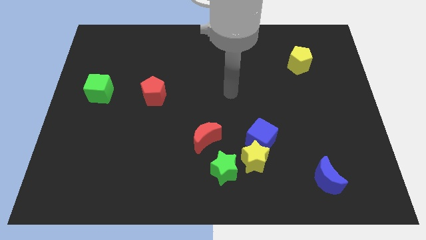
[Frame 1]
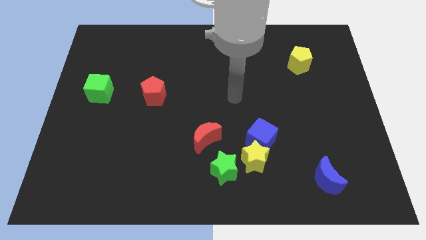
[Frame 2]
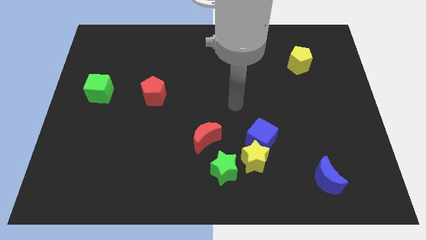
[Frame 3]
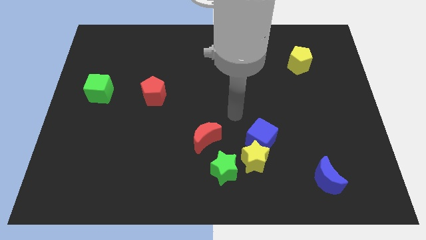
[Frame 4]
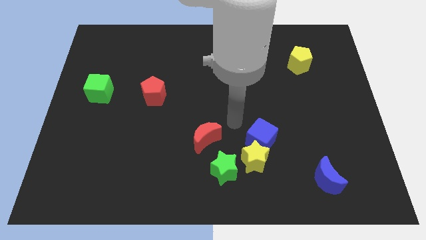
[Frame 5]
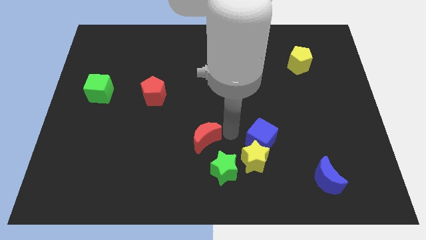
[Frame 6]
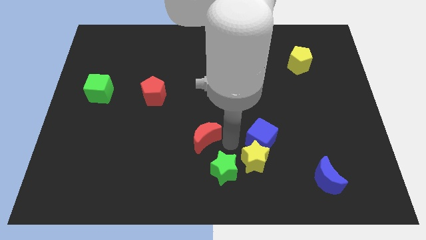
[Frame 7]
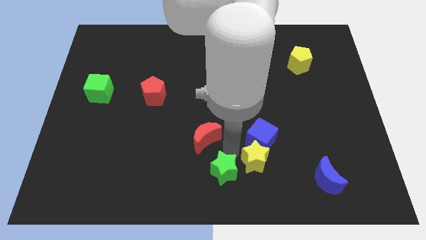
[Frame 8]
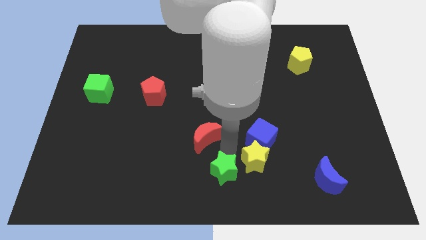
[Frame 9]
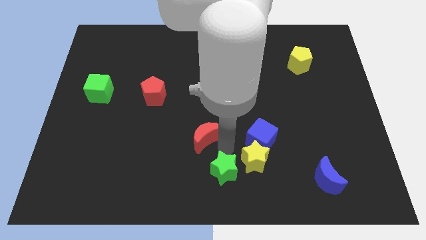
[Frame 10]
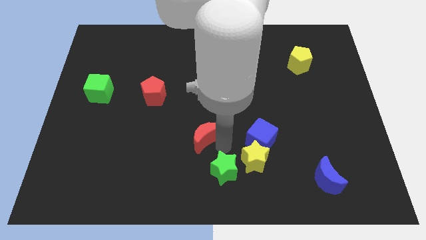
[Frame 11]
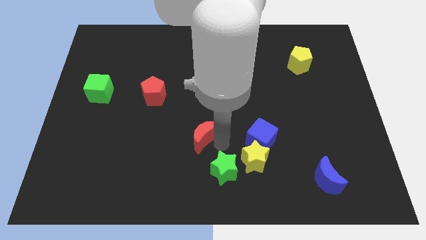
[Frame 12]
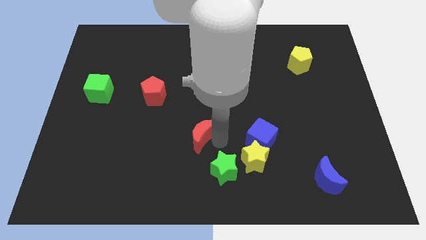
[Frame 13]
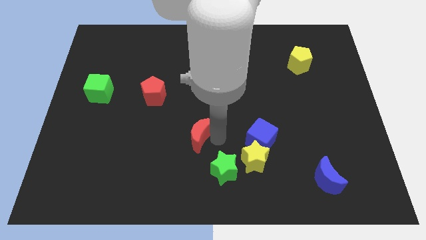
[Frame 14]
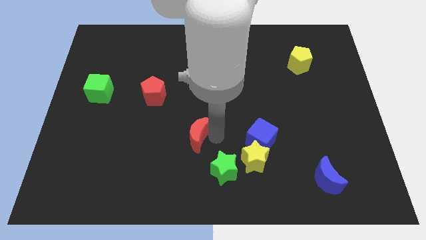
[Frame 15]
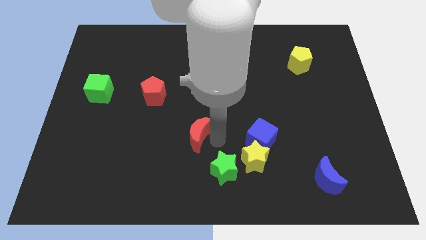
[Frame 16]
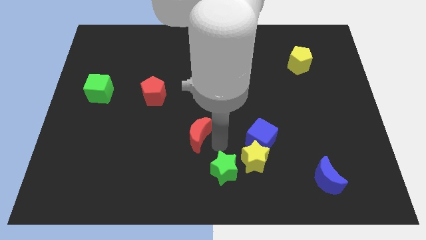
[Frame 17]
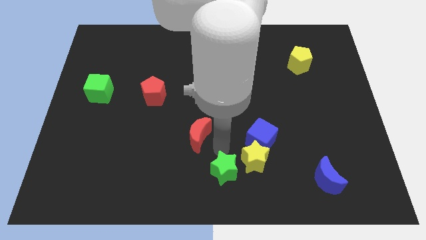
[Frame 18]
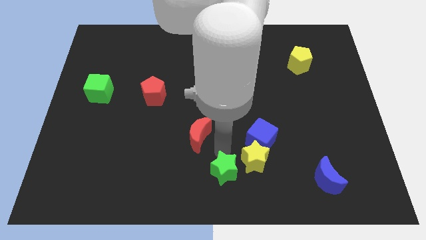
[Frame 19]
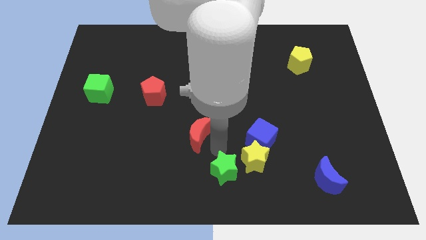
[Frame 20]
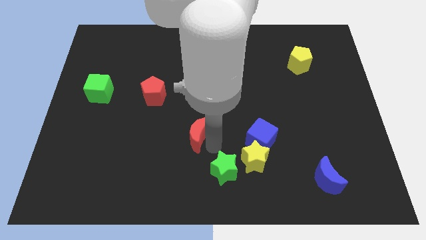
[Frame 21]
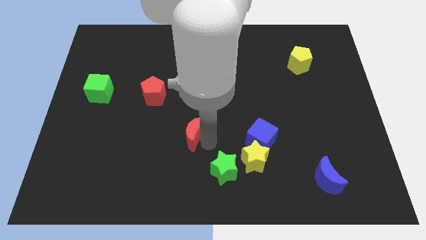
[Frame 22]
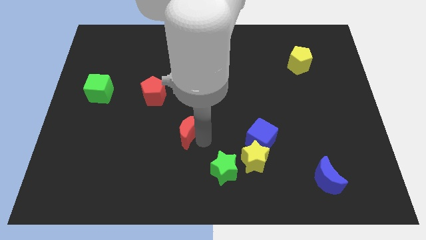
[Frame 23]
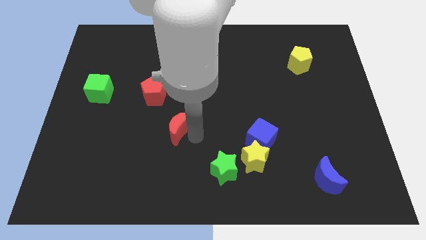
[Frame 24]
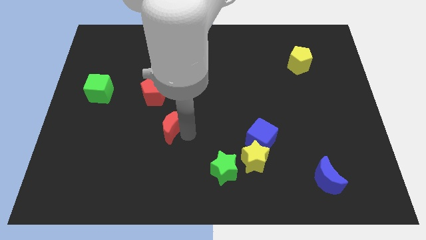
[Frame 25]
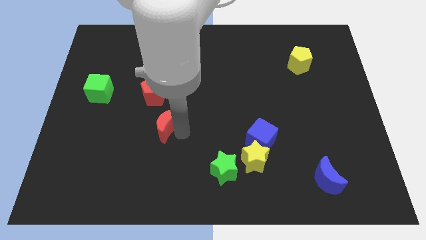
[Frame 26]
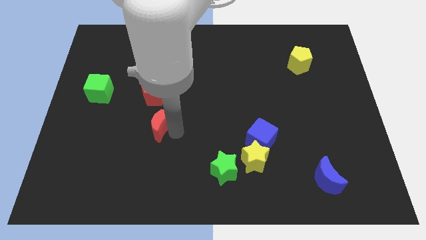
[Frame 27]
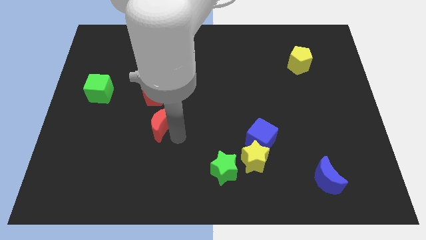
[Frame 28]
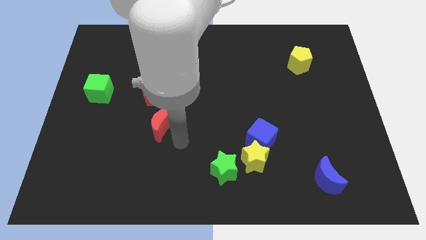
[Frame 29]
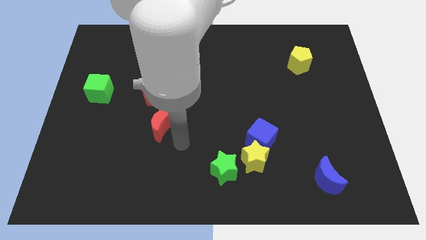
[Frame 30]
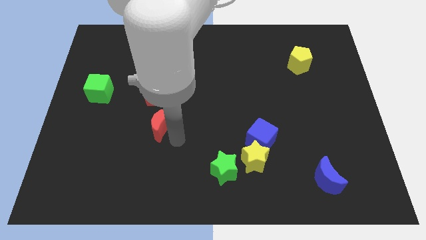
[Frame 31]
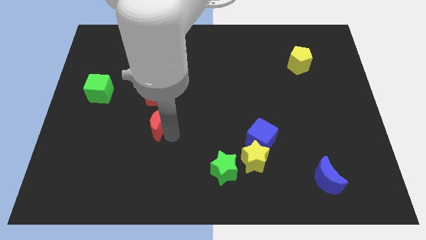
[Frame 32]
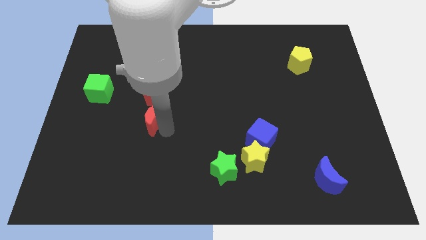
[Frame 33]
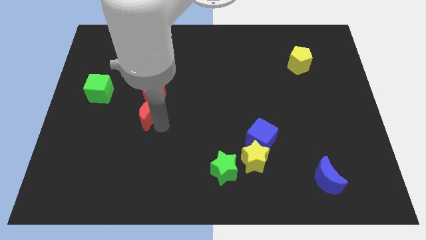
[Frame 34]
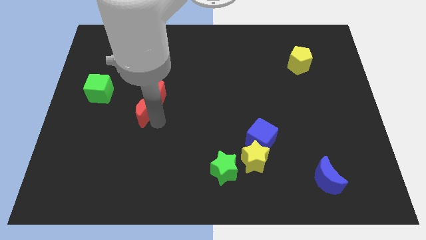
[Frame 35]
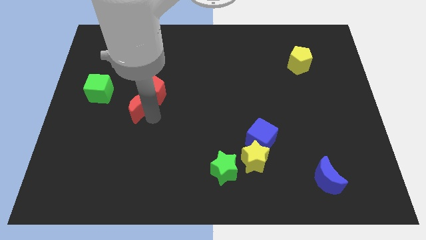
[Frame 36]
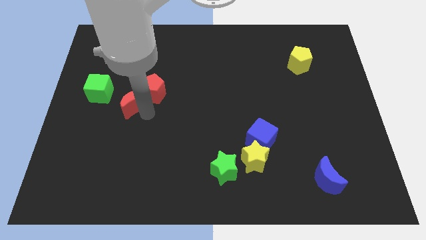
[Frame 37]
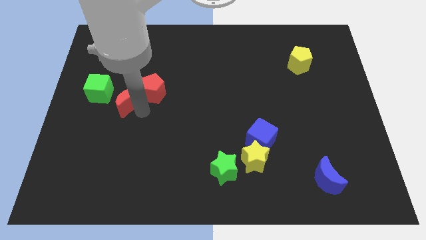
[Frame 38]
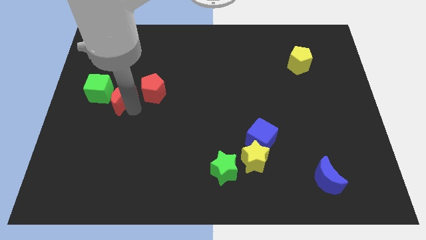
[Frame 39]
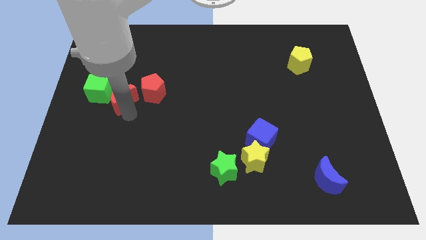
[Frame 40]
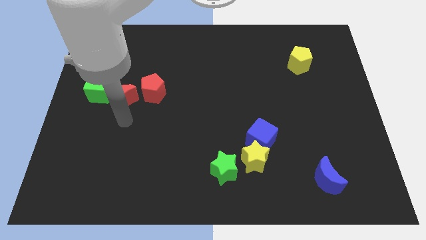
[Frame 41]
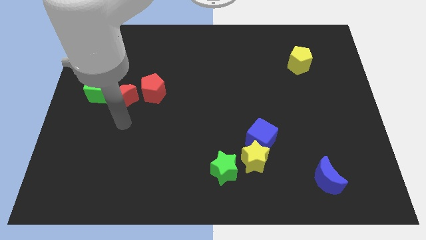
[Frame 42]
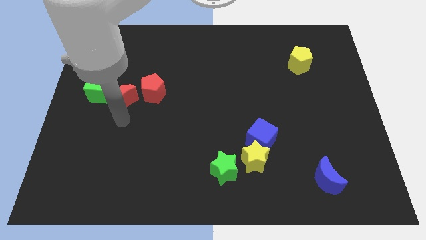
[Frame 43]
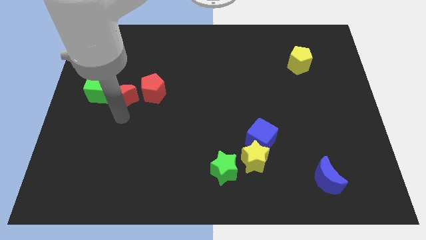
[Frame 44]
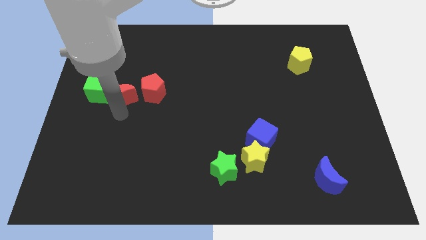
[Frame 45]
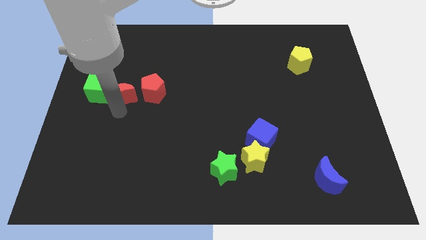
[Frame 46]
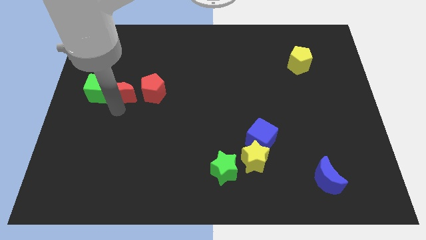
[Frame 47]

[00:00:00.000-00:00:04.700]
push the red moon to the top right side of the green cube

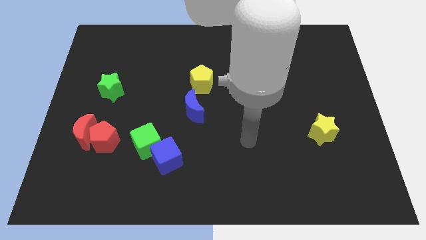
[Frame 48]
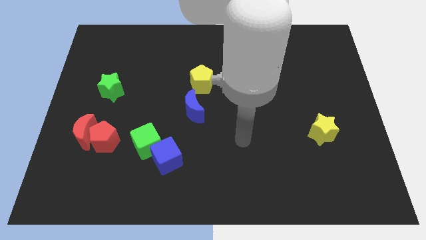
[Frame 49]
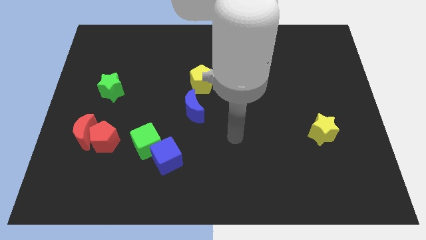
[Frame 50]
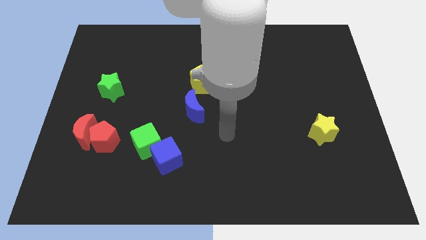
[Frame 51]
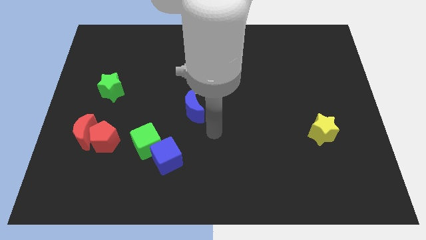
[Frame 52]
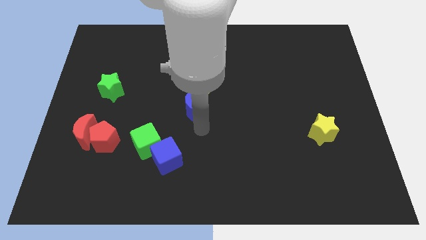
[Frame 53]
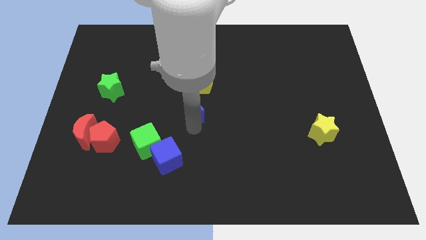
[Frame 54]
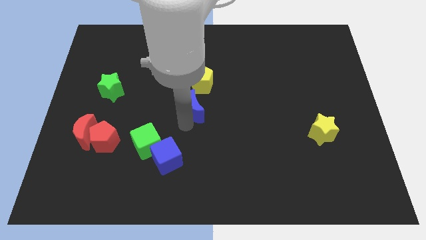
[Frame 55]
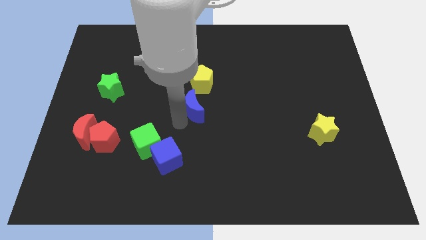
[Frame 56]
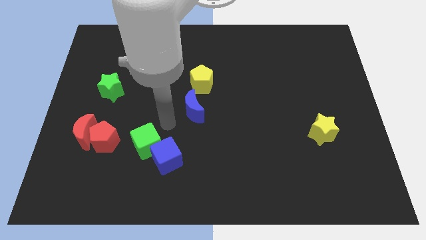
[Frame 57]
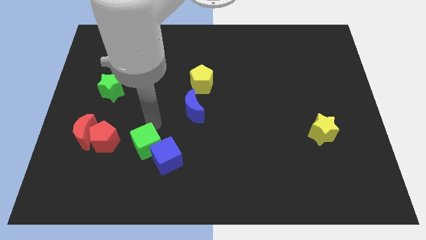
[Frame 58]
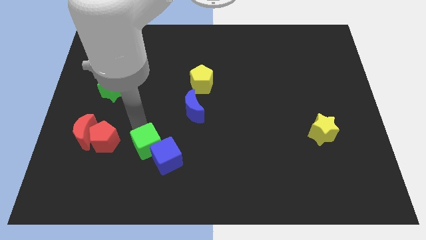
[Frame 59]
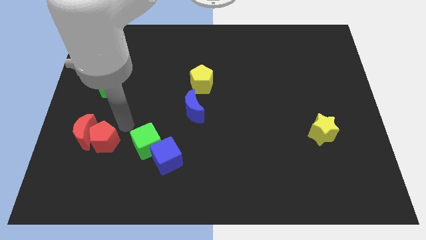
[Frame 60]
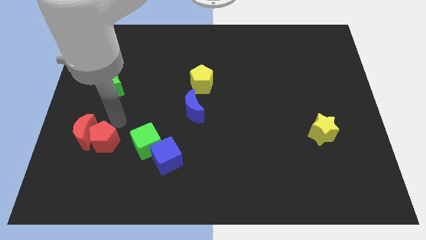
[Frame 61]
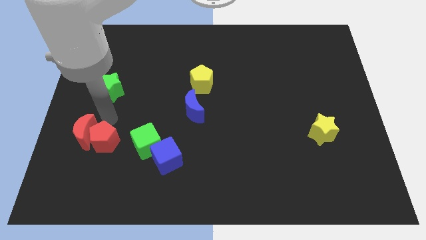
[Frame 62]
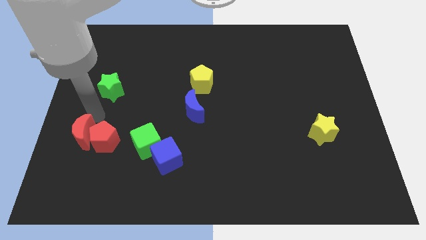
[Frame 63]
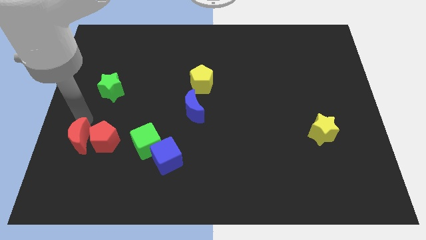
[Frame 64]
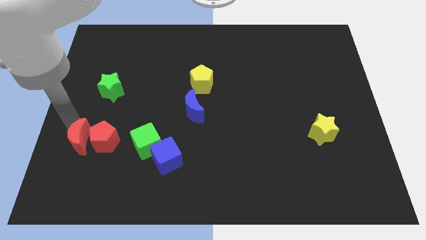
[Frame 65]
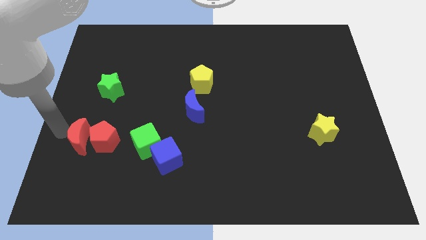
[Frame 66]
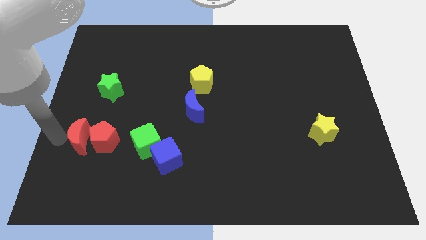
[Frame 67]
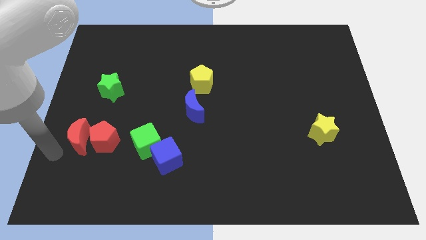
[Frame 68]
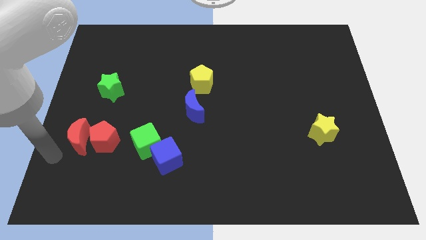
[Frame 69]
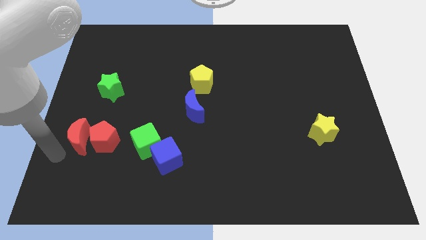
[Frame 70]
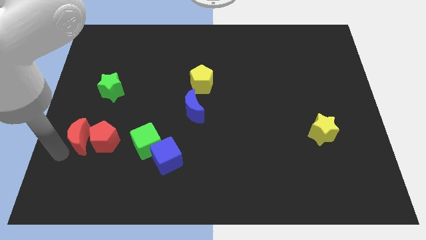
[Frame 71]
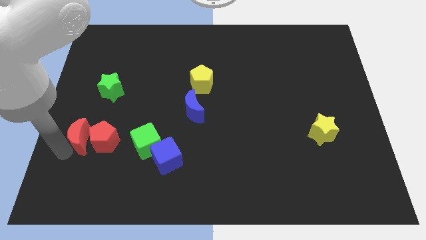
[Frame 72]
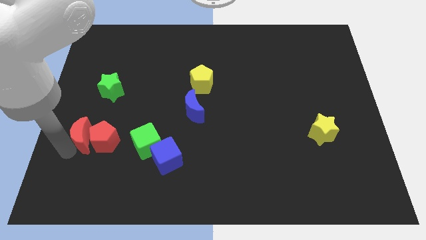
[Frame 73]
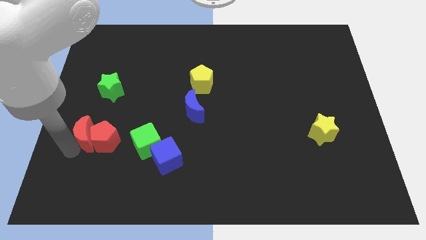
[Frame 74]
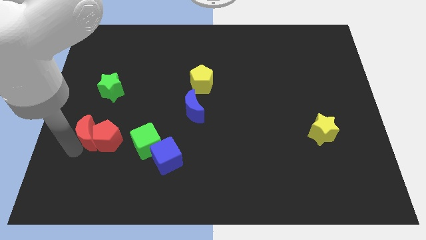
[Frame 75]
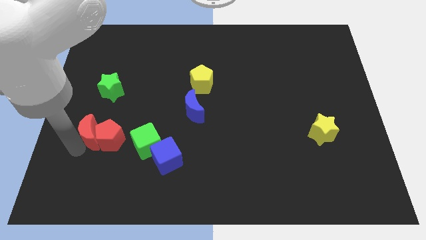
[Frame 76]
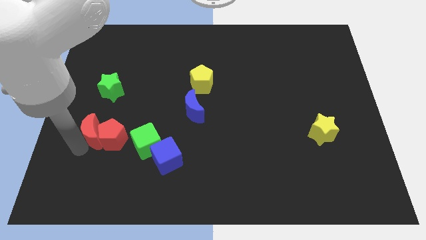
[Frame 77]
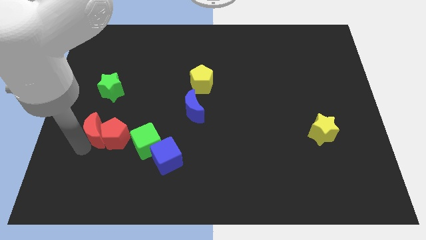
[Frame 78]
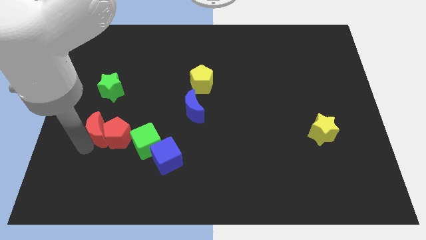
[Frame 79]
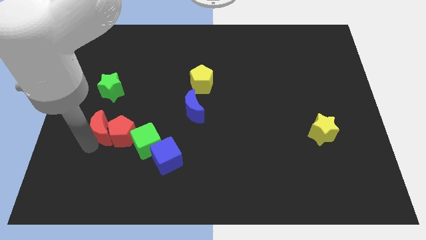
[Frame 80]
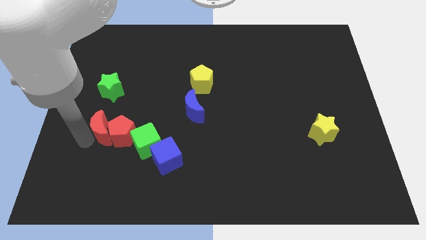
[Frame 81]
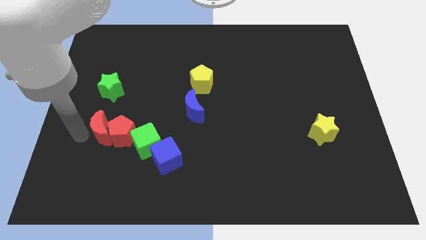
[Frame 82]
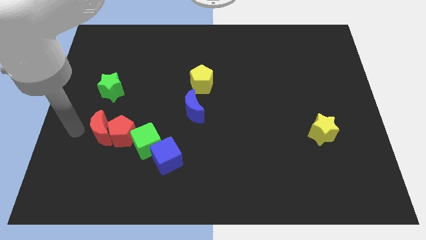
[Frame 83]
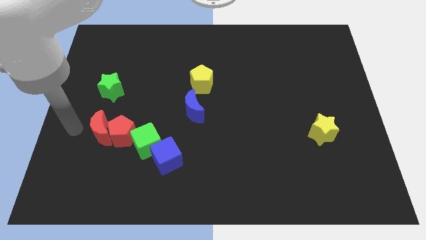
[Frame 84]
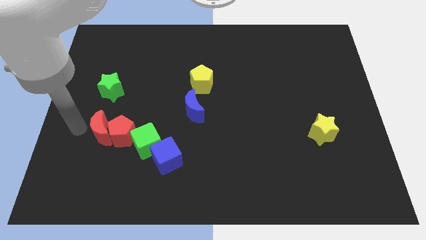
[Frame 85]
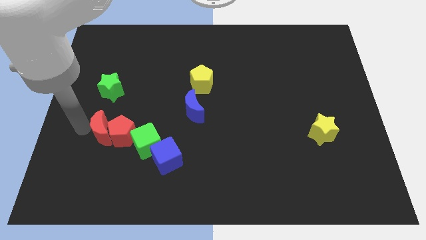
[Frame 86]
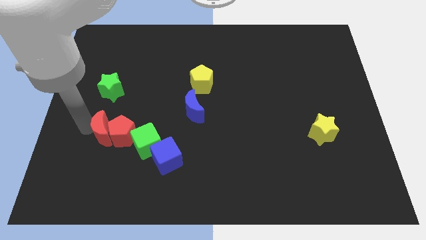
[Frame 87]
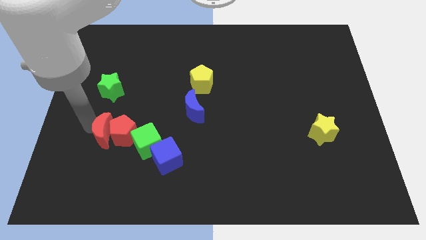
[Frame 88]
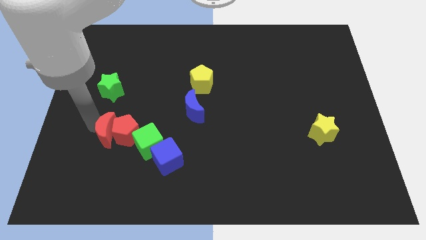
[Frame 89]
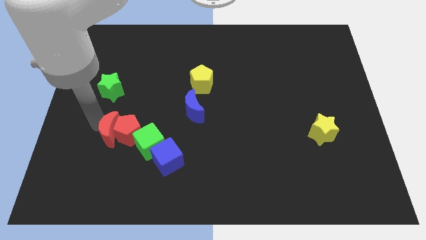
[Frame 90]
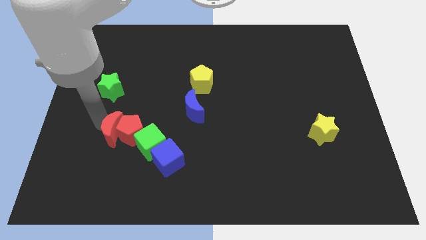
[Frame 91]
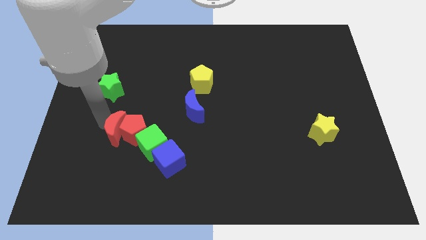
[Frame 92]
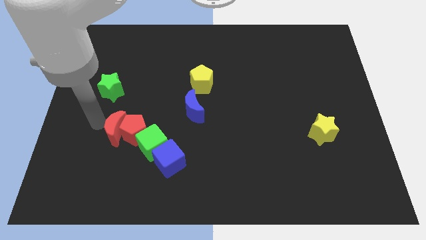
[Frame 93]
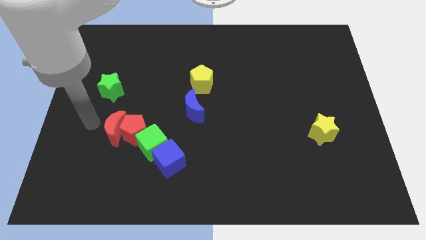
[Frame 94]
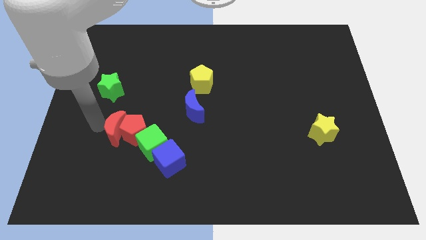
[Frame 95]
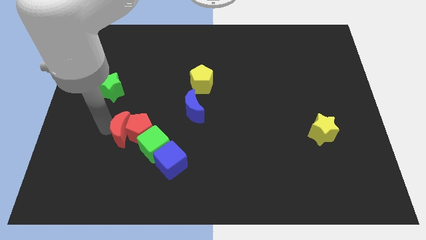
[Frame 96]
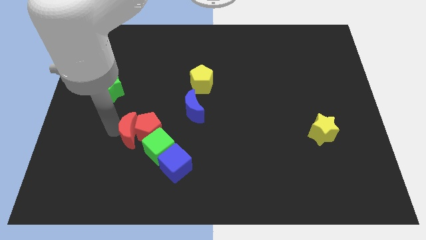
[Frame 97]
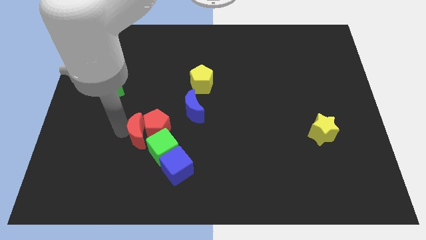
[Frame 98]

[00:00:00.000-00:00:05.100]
put the red moon diagonally up and to the left of the blue cube
